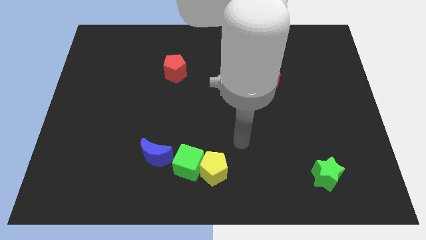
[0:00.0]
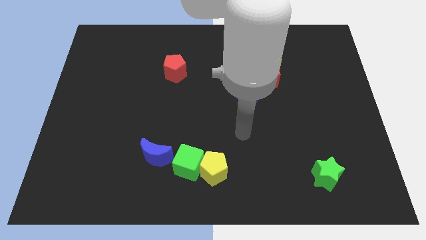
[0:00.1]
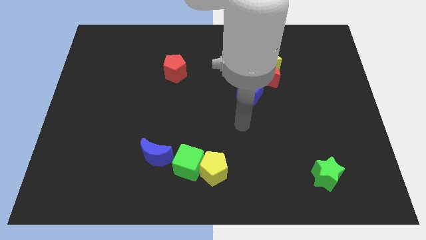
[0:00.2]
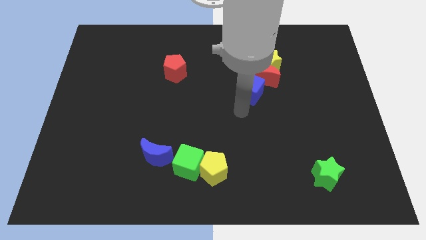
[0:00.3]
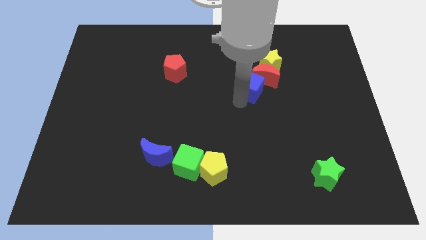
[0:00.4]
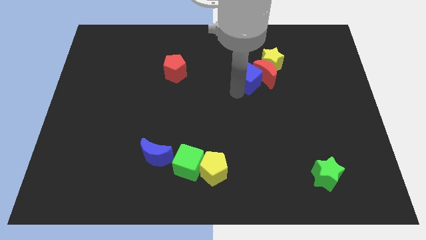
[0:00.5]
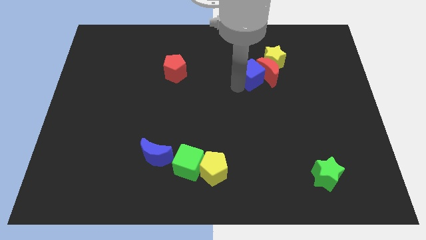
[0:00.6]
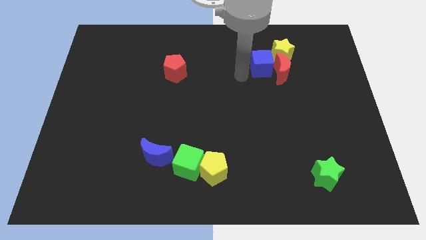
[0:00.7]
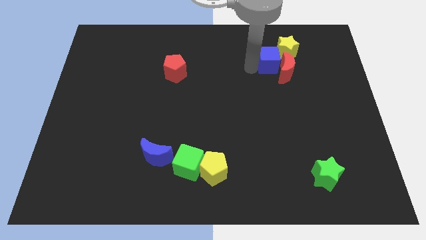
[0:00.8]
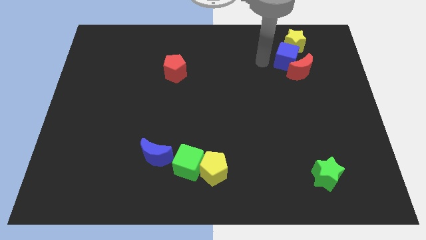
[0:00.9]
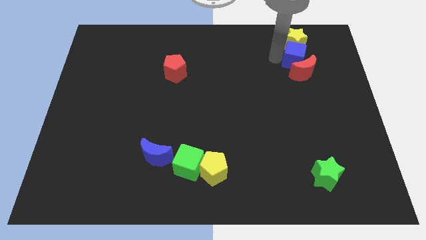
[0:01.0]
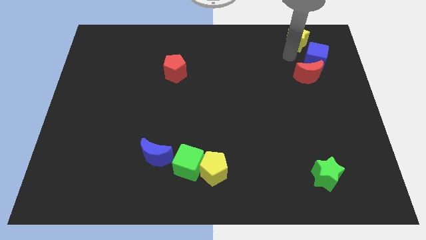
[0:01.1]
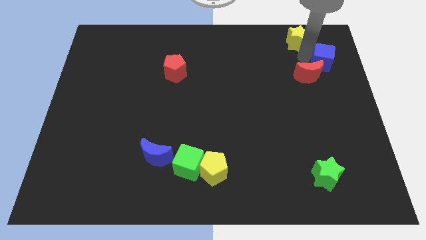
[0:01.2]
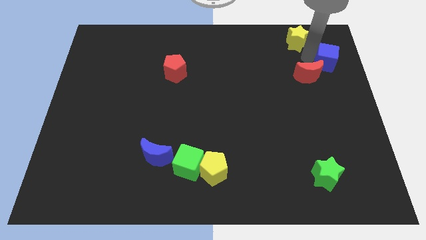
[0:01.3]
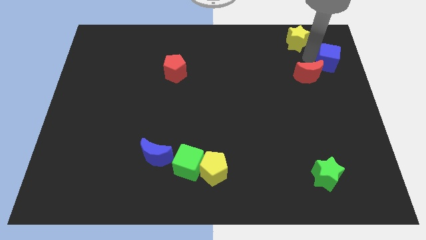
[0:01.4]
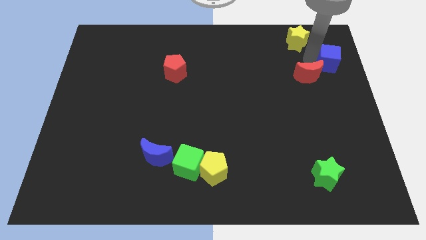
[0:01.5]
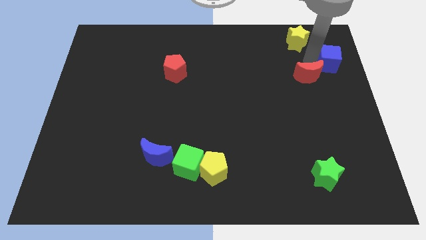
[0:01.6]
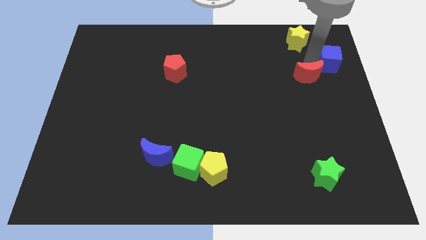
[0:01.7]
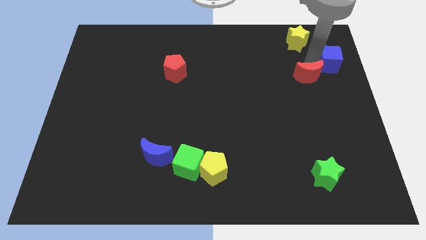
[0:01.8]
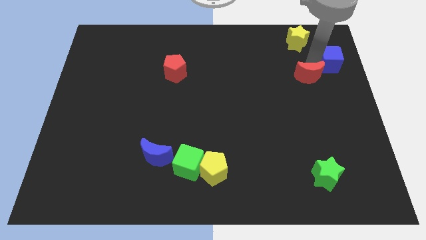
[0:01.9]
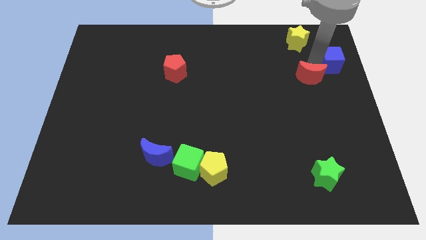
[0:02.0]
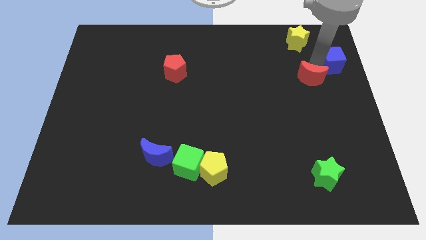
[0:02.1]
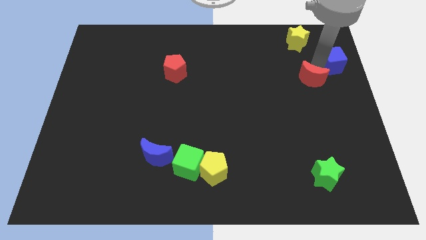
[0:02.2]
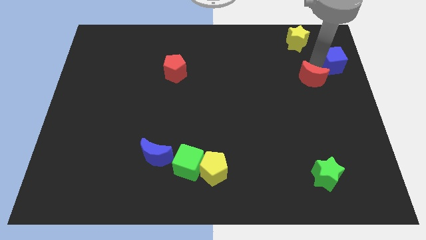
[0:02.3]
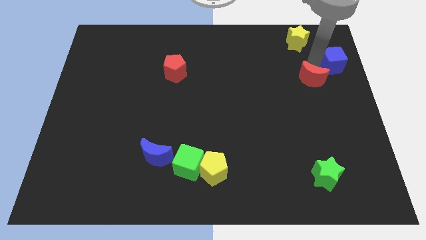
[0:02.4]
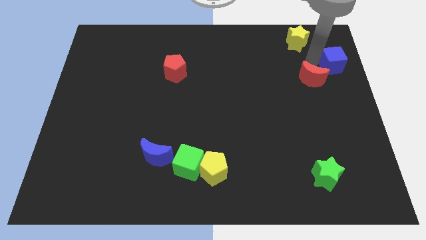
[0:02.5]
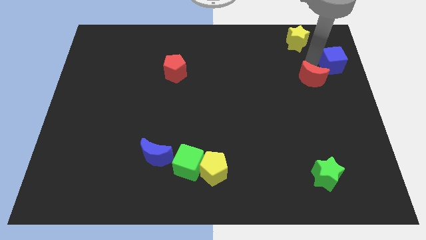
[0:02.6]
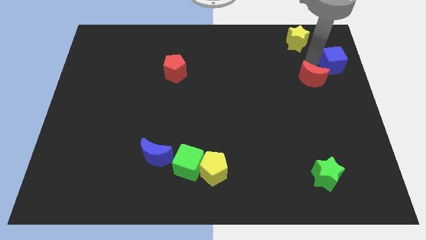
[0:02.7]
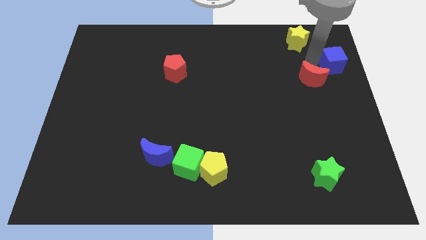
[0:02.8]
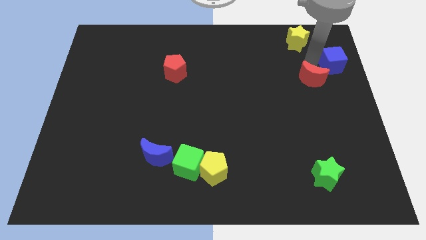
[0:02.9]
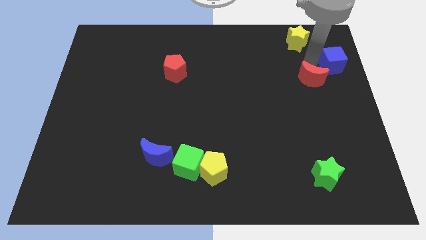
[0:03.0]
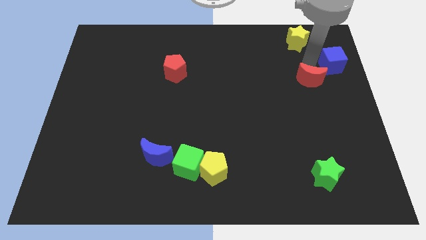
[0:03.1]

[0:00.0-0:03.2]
move the red moon away from the yellow star and blue cube

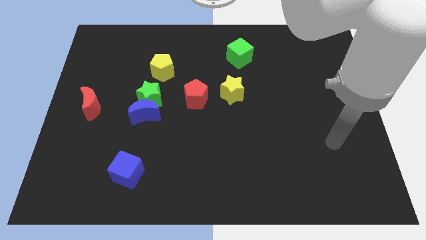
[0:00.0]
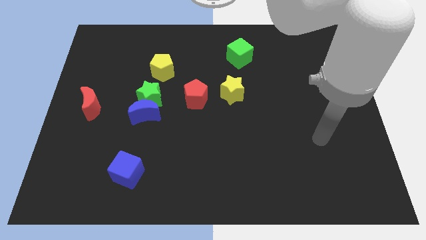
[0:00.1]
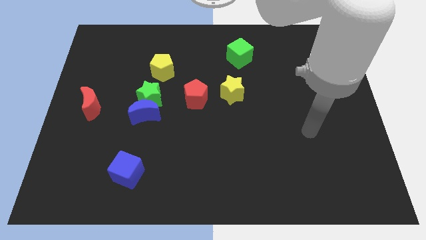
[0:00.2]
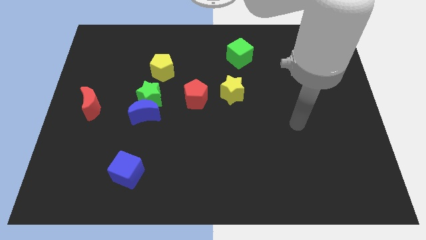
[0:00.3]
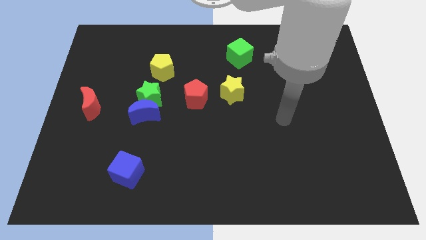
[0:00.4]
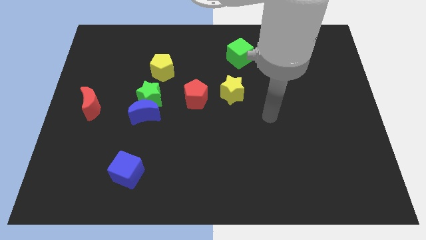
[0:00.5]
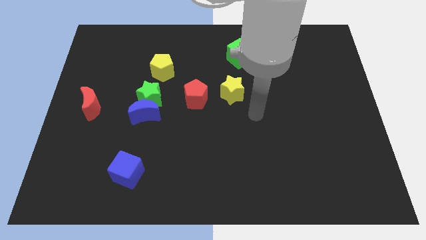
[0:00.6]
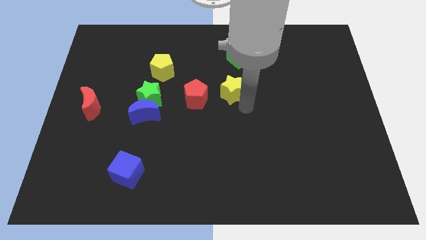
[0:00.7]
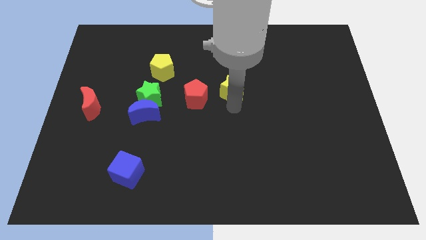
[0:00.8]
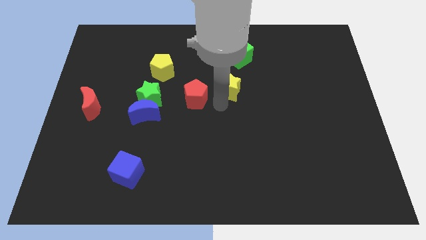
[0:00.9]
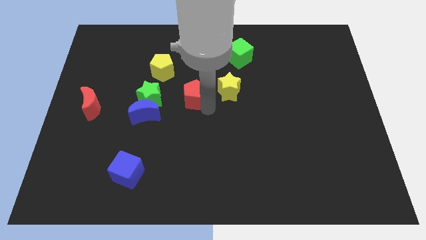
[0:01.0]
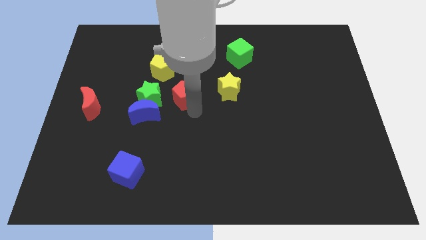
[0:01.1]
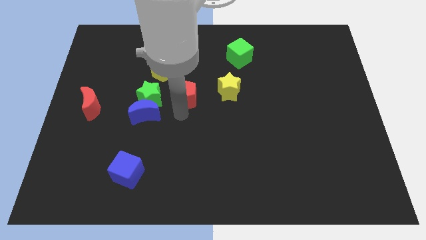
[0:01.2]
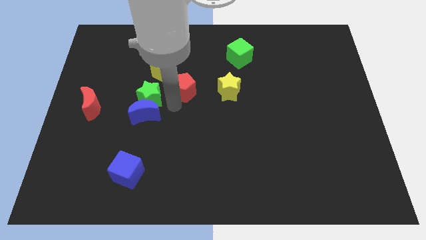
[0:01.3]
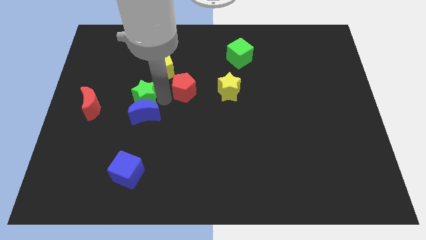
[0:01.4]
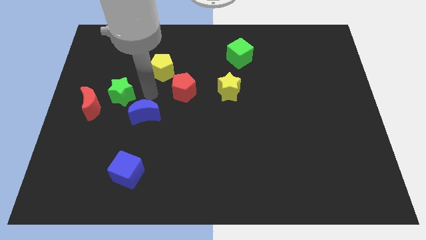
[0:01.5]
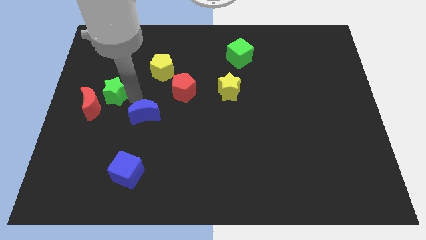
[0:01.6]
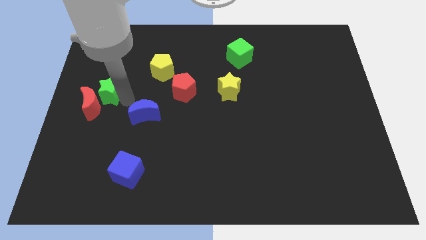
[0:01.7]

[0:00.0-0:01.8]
pull the blue moon apart from the green star

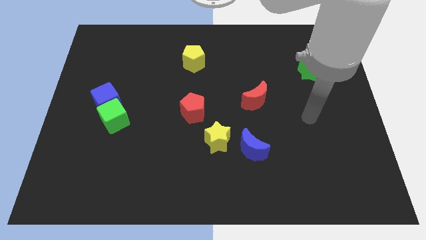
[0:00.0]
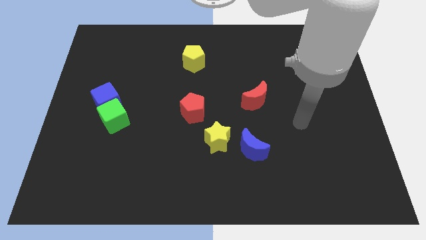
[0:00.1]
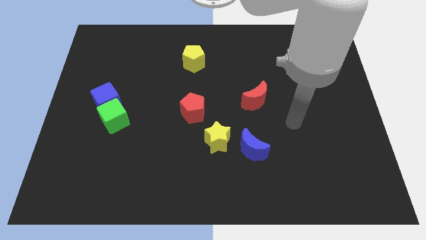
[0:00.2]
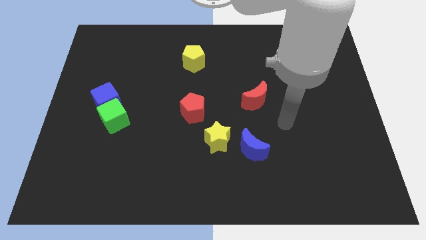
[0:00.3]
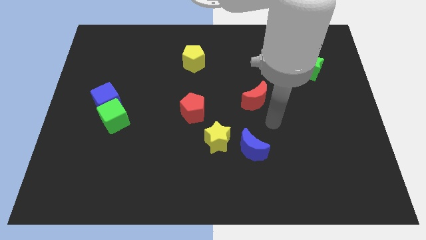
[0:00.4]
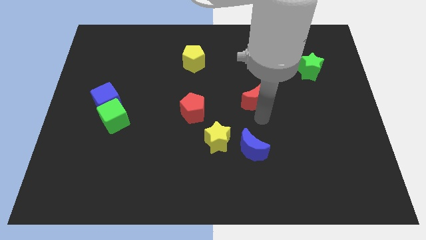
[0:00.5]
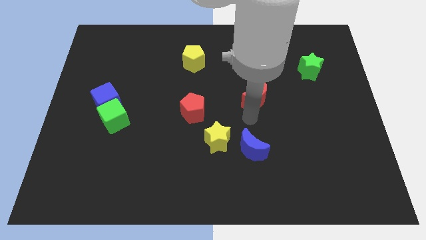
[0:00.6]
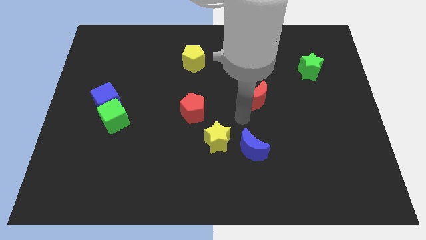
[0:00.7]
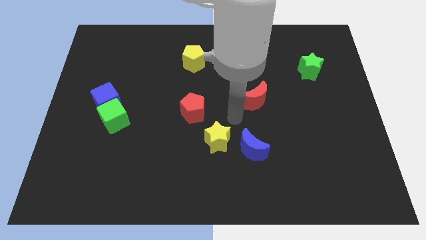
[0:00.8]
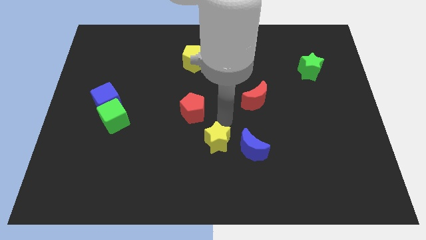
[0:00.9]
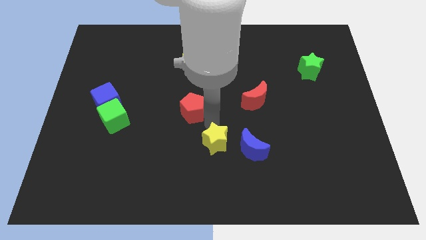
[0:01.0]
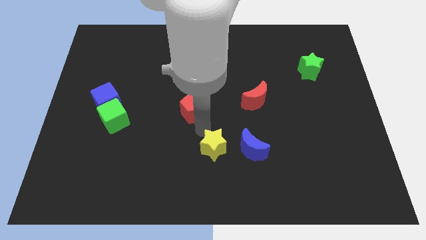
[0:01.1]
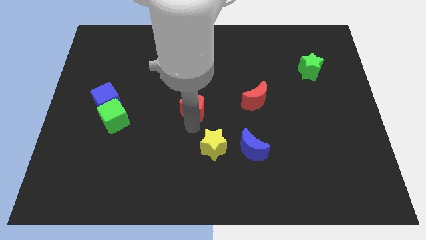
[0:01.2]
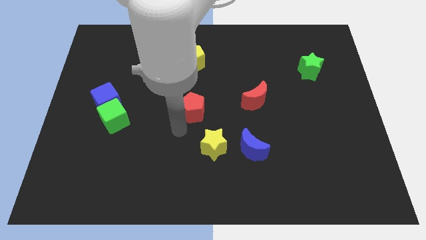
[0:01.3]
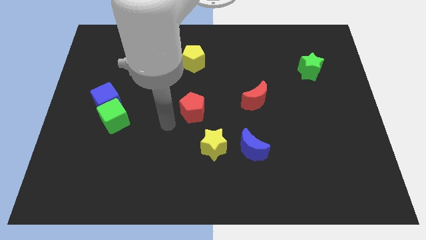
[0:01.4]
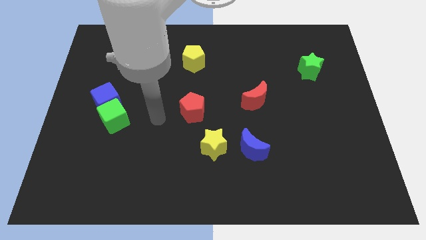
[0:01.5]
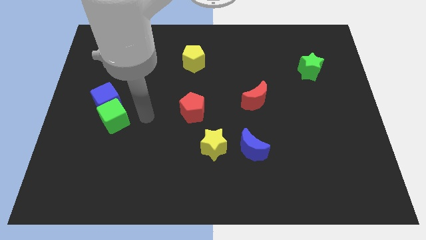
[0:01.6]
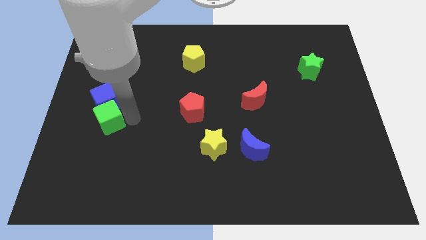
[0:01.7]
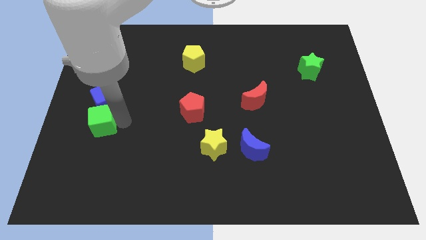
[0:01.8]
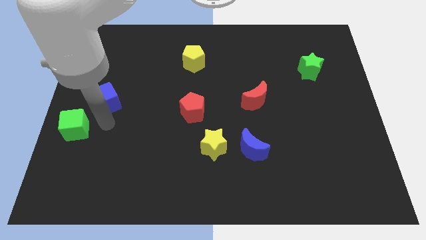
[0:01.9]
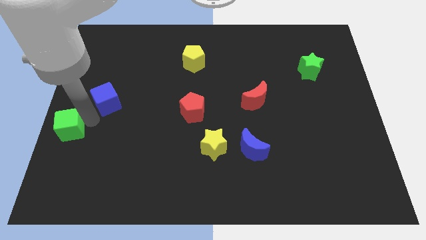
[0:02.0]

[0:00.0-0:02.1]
move the blue cube away from the green cube

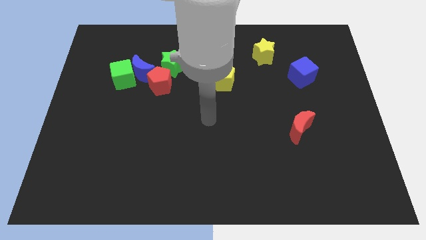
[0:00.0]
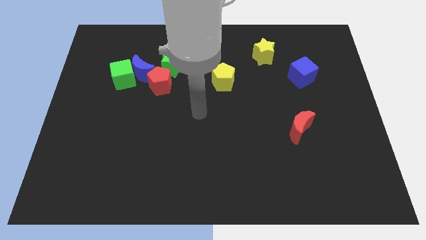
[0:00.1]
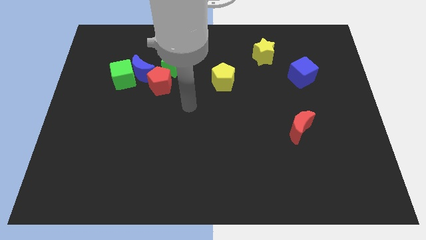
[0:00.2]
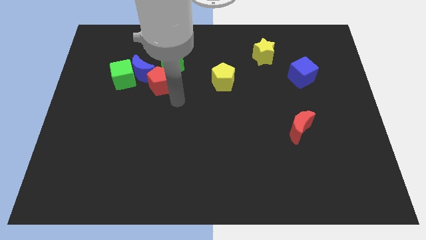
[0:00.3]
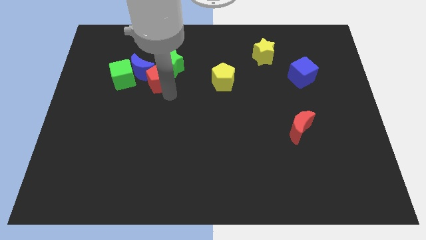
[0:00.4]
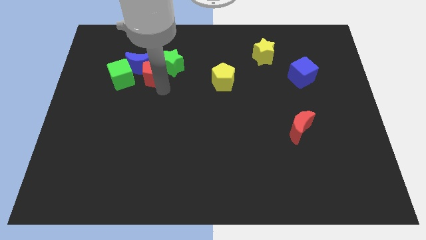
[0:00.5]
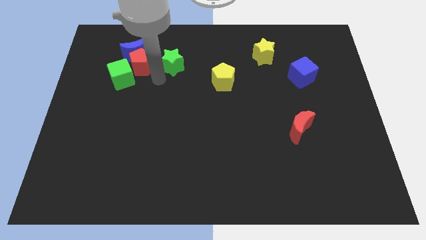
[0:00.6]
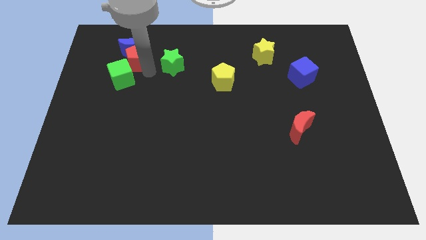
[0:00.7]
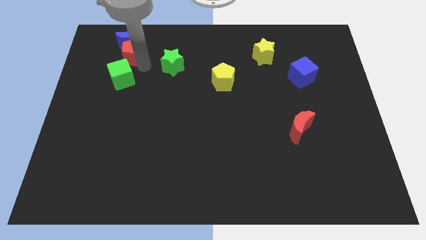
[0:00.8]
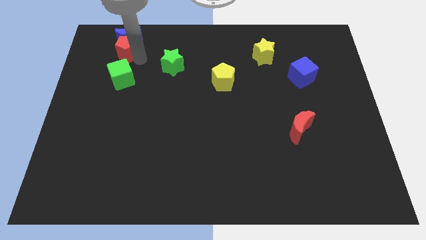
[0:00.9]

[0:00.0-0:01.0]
move the blue moon away from the group

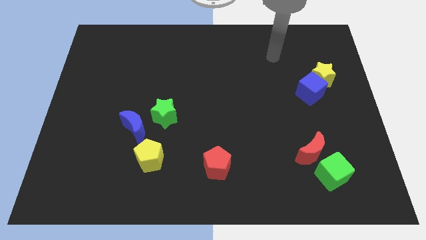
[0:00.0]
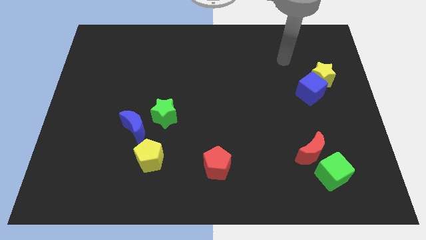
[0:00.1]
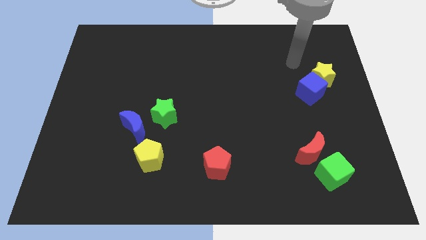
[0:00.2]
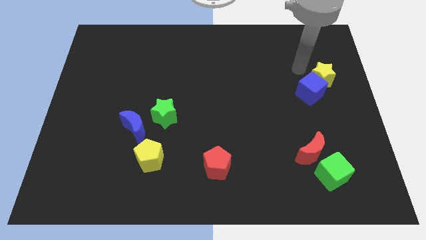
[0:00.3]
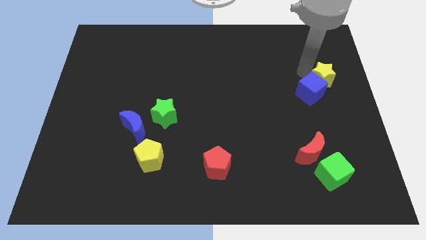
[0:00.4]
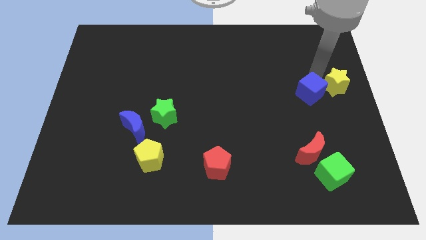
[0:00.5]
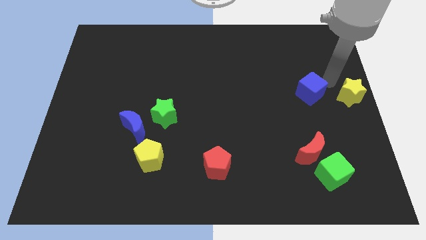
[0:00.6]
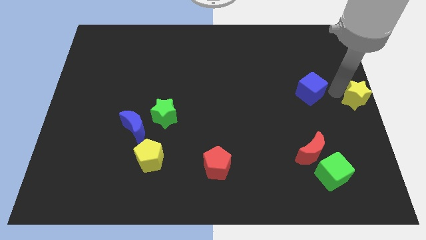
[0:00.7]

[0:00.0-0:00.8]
move the blue cube away from the yellow star

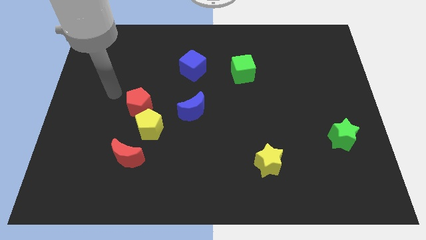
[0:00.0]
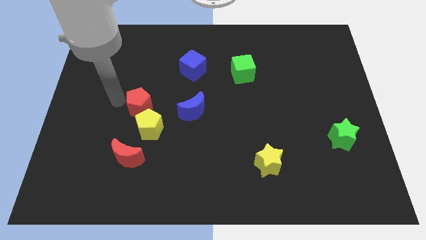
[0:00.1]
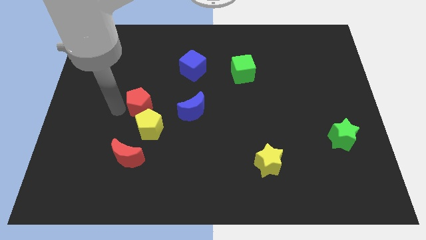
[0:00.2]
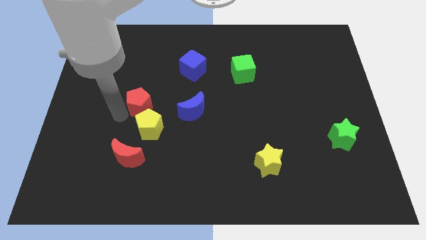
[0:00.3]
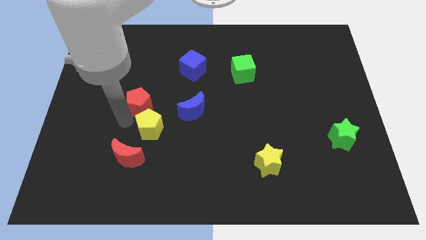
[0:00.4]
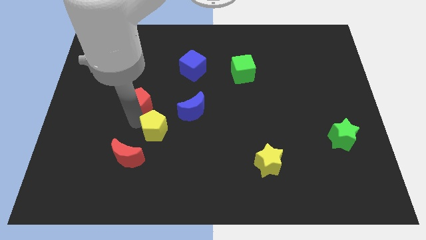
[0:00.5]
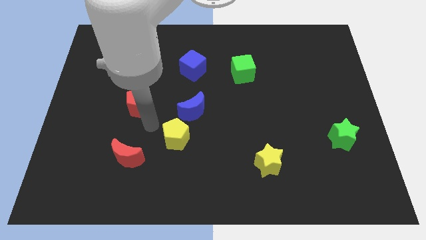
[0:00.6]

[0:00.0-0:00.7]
pull the red pentagon apart from the yellow pentagon
